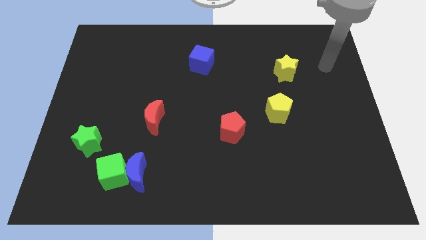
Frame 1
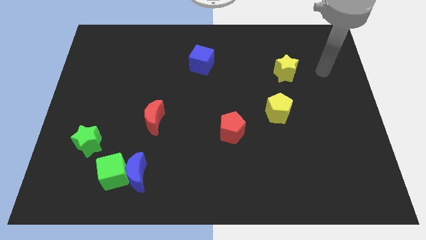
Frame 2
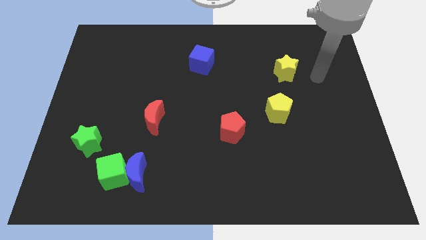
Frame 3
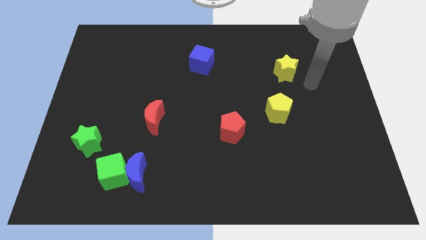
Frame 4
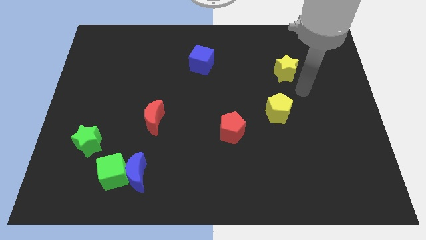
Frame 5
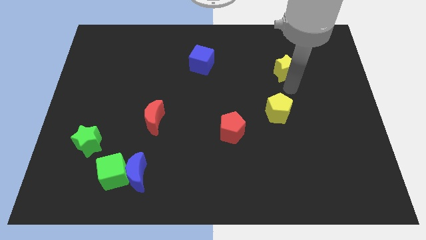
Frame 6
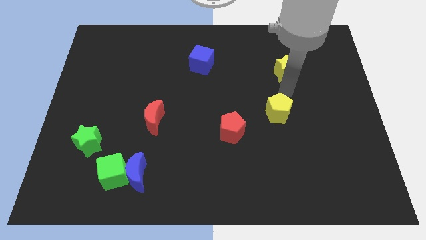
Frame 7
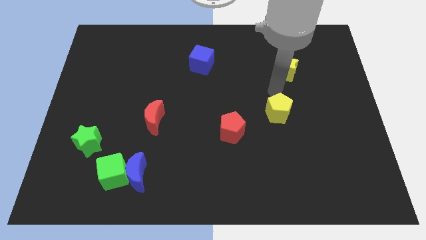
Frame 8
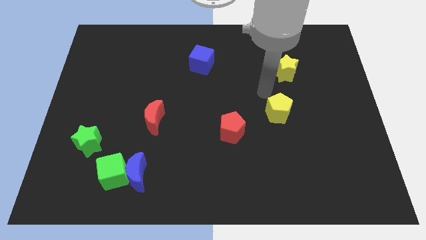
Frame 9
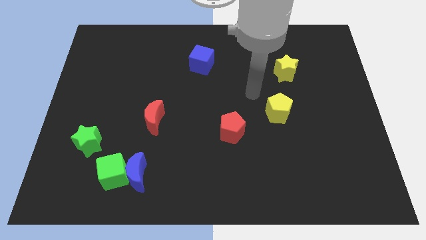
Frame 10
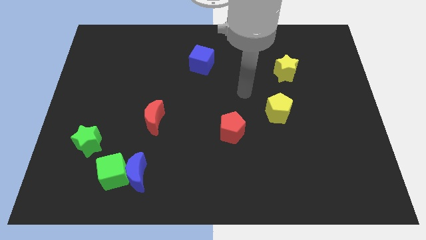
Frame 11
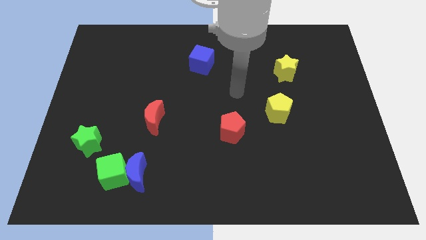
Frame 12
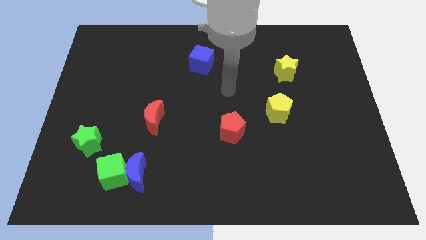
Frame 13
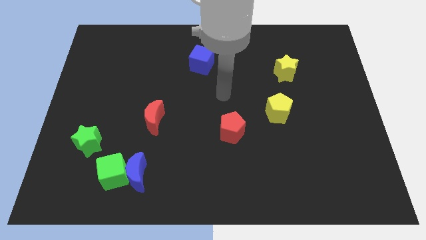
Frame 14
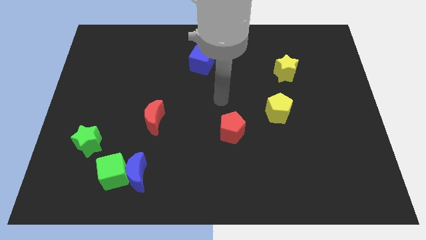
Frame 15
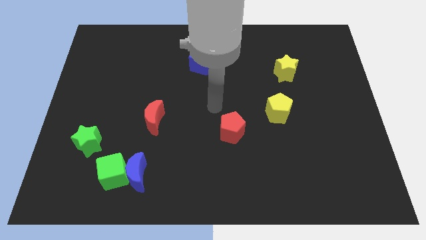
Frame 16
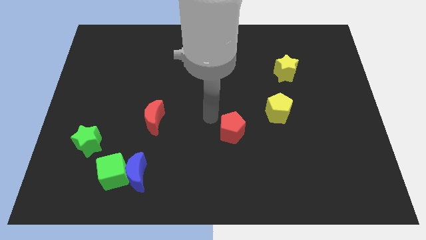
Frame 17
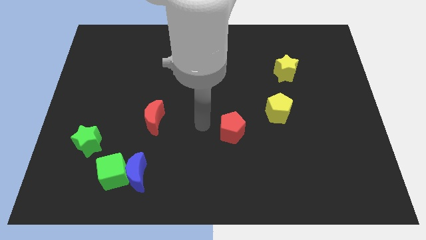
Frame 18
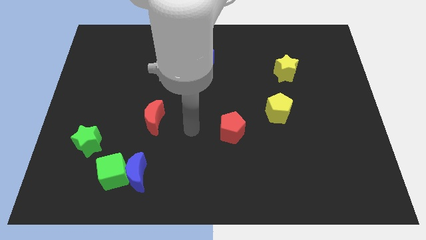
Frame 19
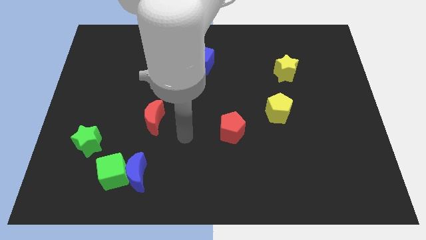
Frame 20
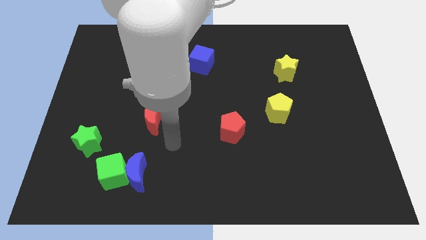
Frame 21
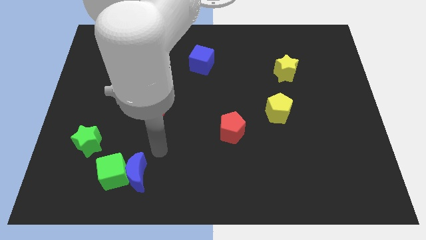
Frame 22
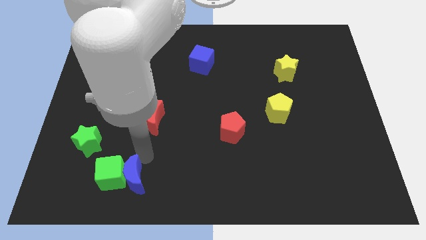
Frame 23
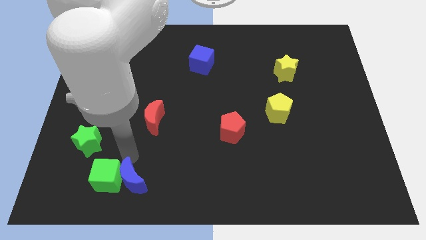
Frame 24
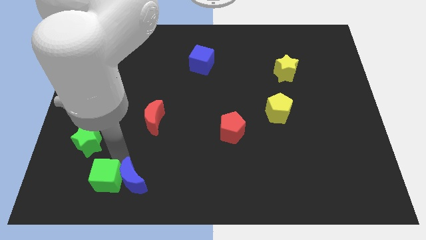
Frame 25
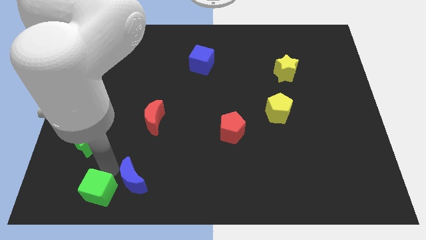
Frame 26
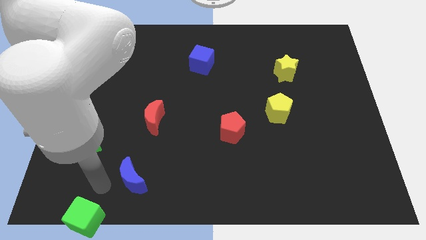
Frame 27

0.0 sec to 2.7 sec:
move the blue moon away from the green cube

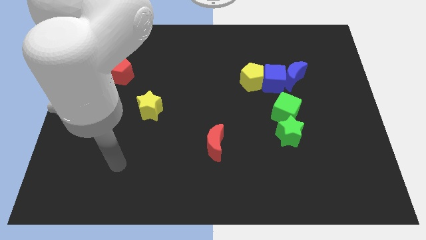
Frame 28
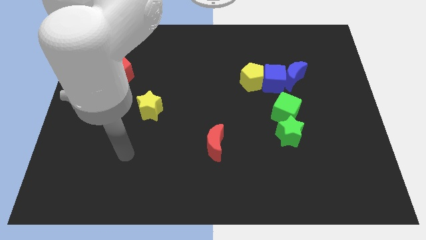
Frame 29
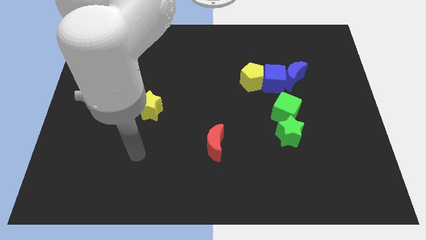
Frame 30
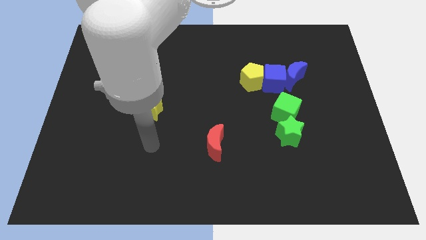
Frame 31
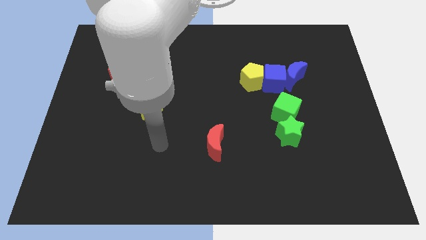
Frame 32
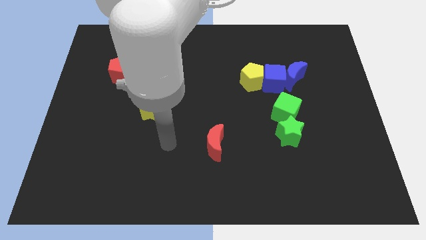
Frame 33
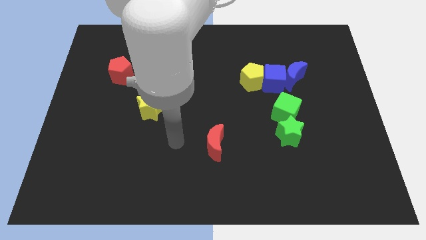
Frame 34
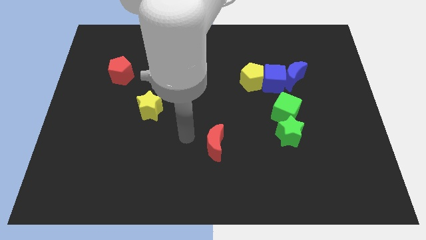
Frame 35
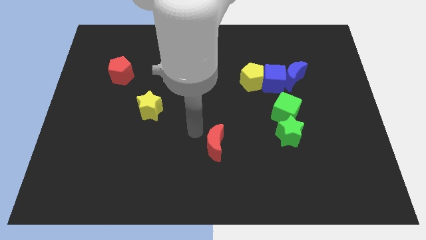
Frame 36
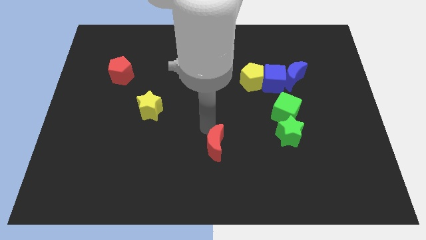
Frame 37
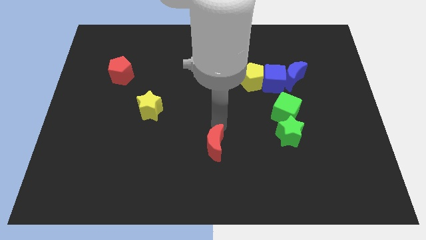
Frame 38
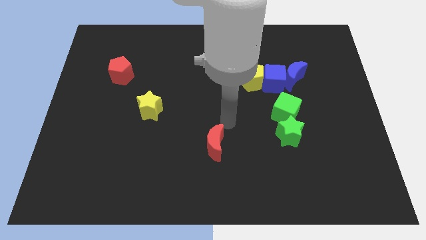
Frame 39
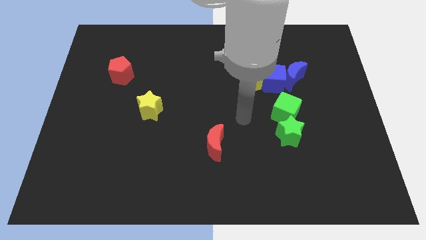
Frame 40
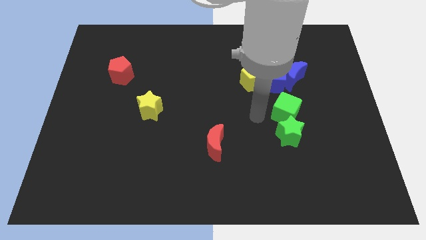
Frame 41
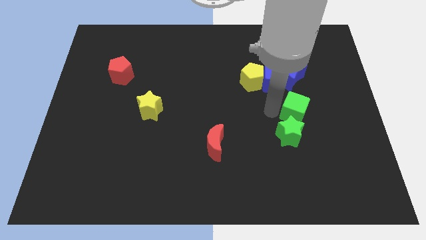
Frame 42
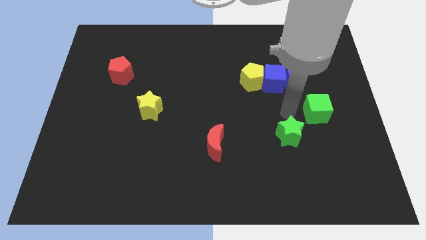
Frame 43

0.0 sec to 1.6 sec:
move the green star away from the green cube

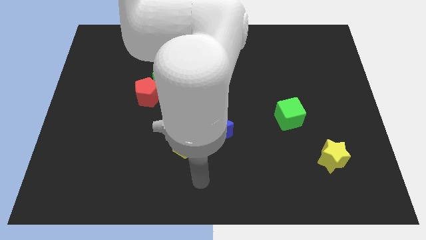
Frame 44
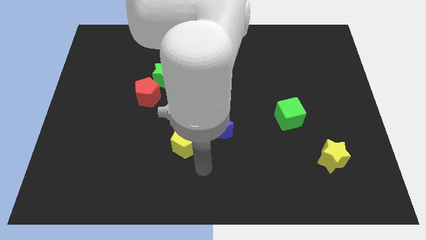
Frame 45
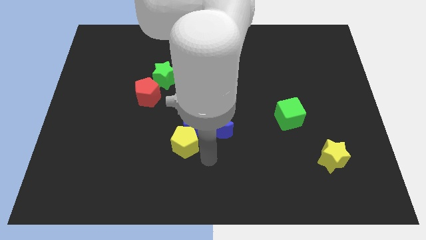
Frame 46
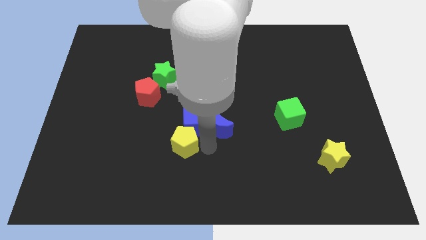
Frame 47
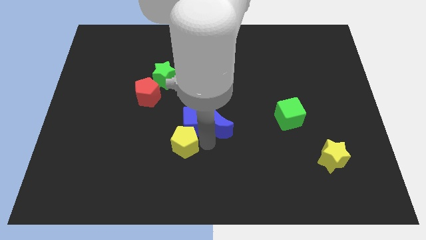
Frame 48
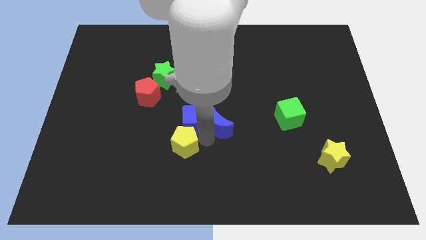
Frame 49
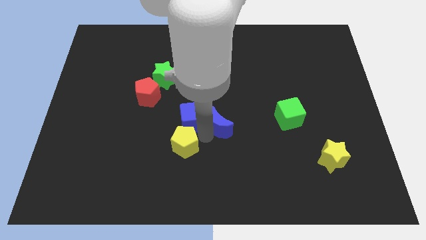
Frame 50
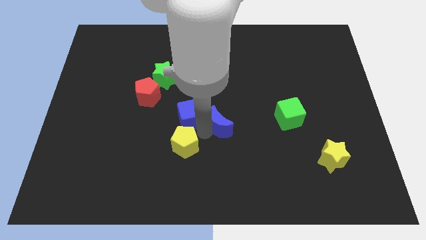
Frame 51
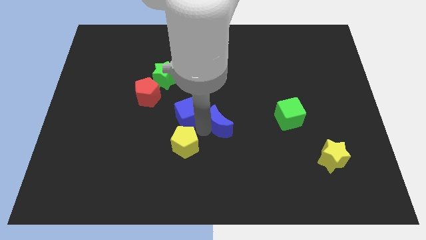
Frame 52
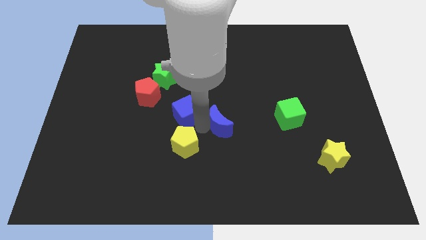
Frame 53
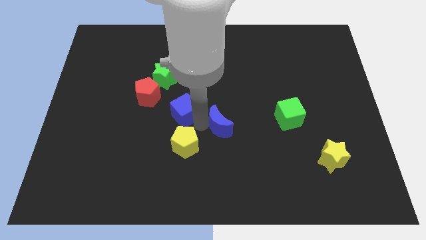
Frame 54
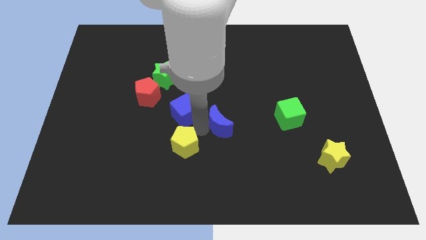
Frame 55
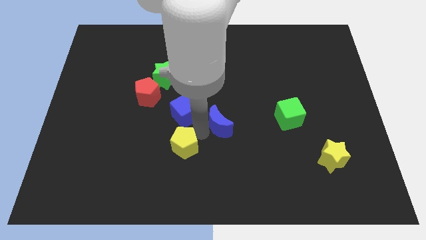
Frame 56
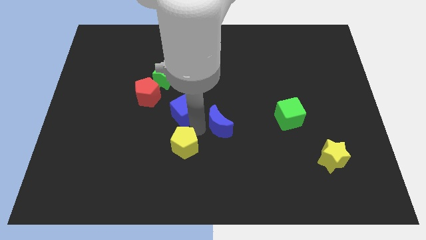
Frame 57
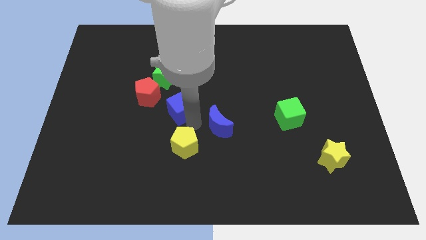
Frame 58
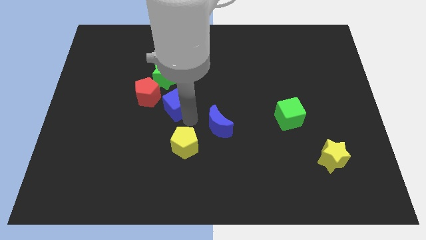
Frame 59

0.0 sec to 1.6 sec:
separate the blue cube from the blue moon and yellow pentagon

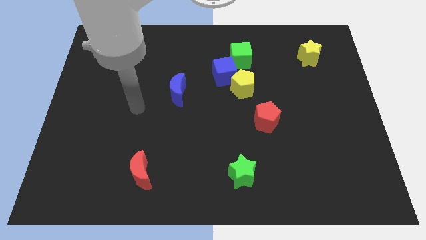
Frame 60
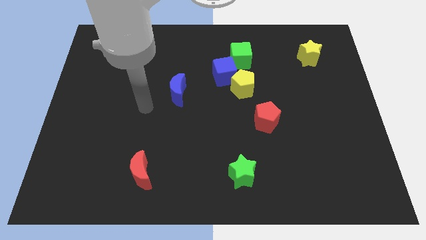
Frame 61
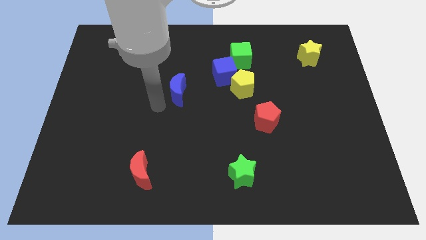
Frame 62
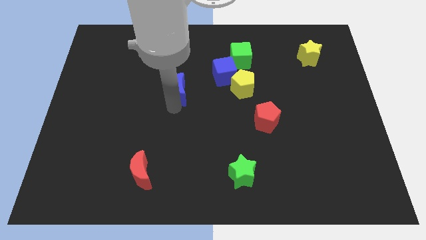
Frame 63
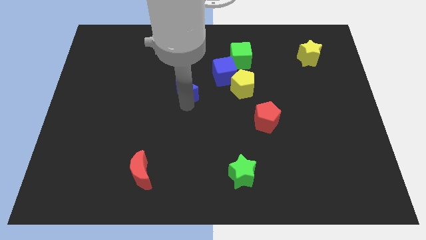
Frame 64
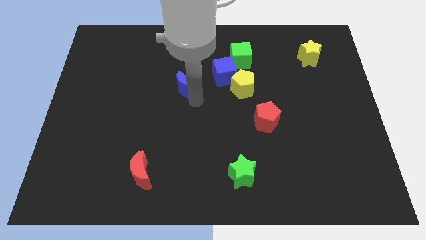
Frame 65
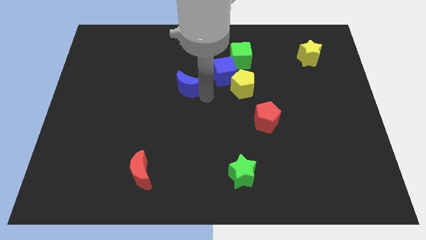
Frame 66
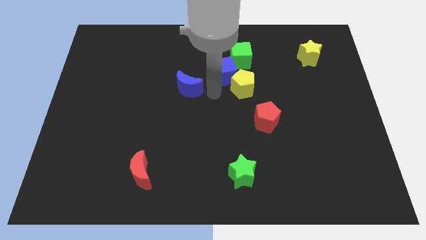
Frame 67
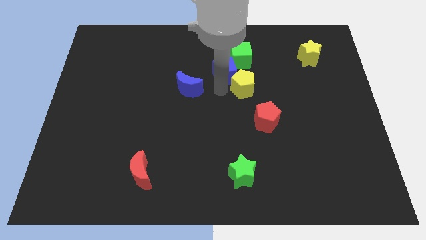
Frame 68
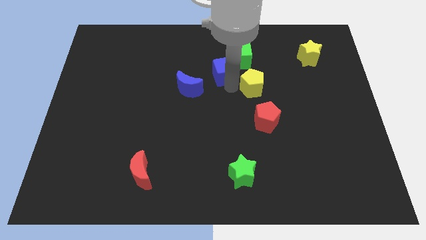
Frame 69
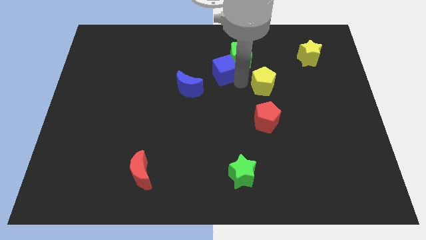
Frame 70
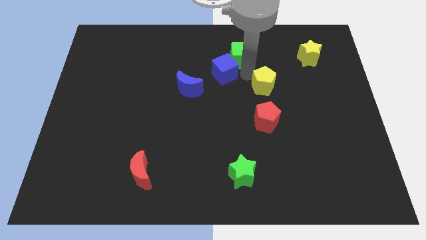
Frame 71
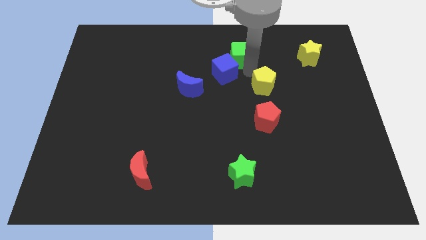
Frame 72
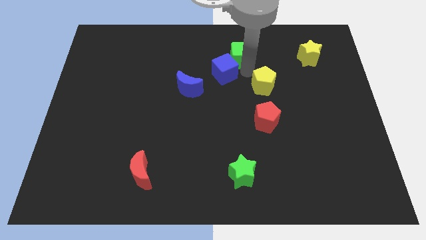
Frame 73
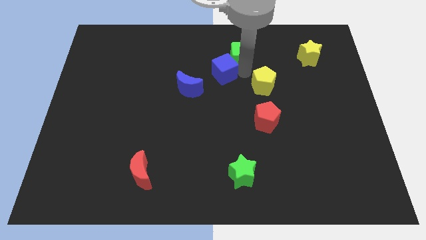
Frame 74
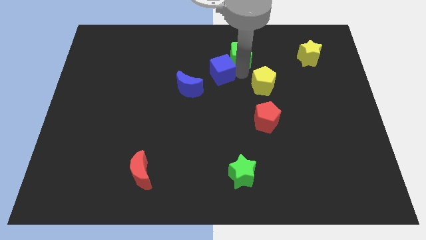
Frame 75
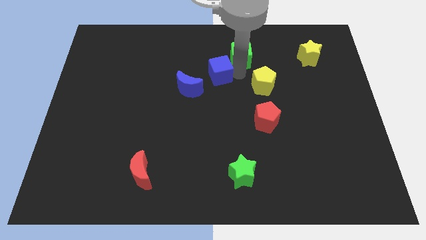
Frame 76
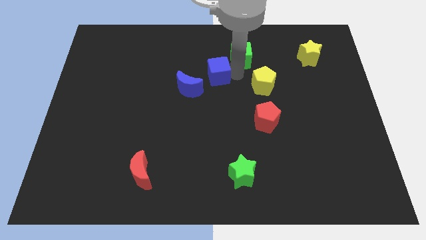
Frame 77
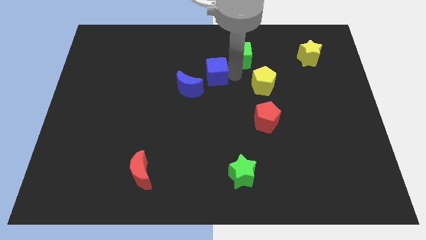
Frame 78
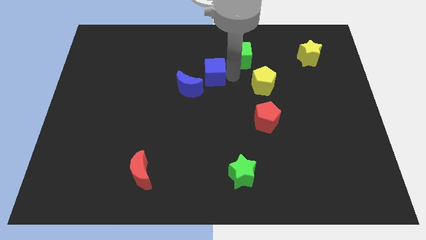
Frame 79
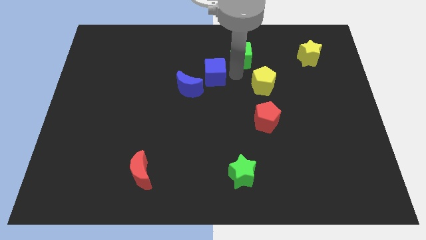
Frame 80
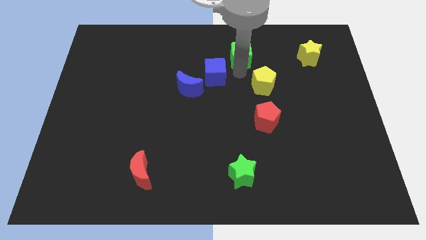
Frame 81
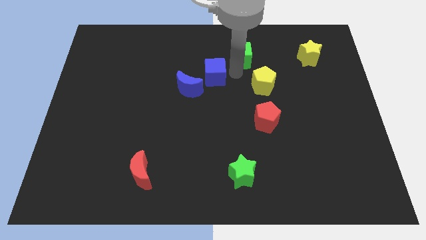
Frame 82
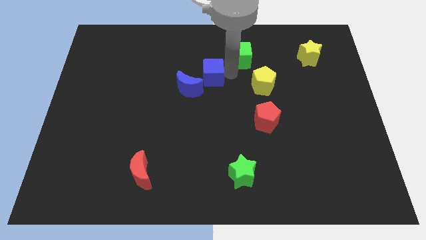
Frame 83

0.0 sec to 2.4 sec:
pull the blue cube apart from the yellow pentagon and green cube

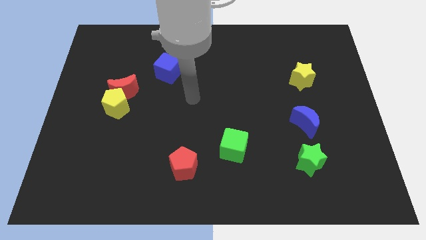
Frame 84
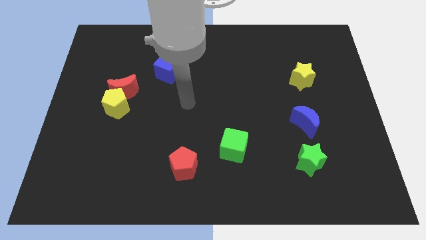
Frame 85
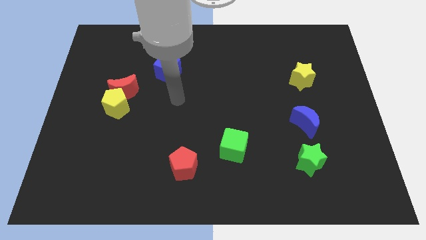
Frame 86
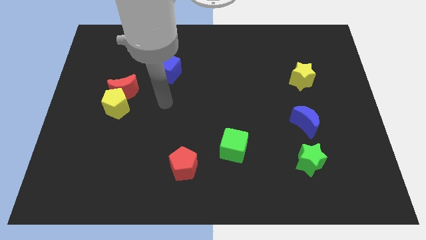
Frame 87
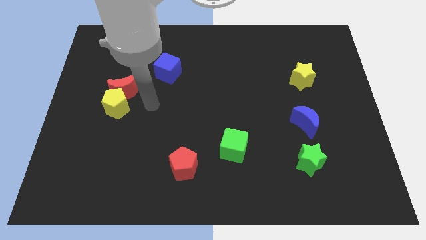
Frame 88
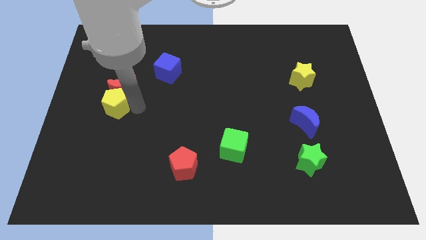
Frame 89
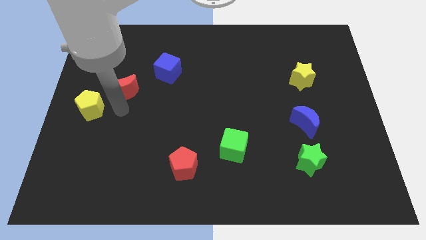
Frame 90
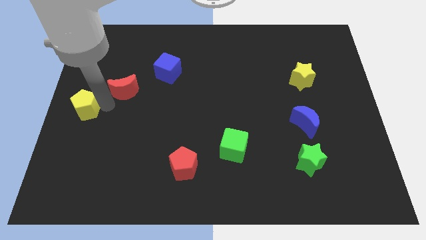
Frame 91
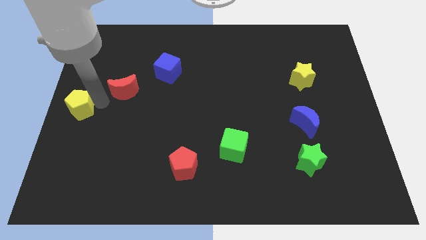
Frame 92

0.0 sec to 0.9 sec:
move the red moon away from the yellow pentagon
